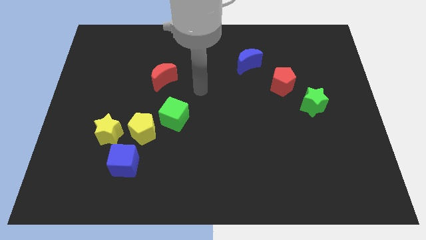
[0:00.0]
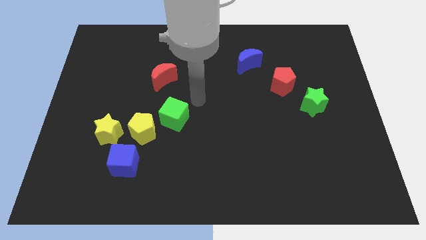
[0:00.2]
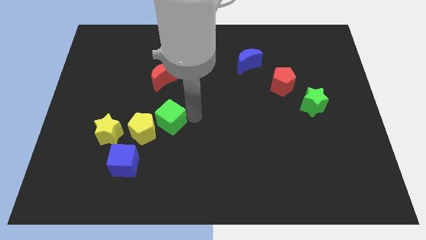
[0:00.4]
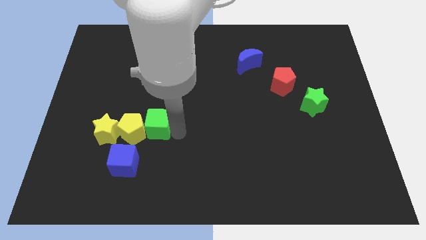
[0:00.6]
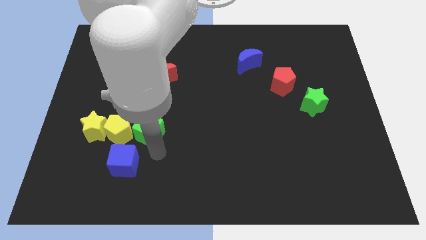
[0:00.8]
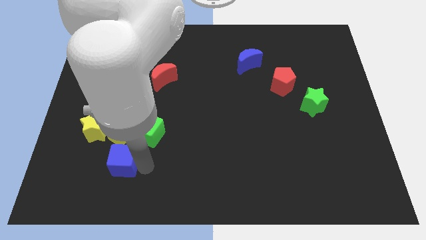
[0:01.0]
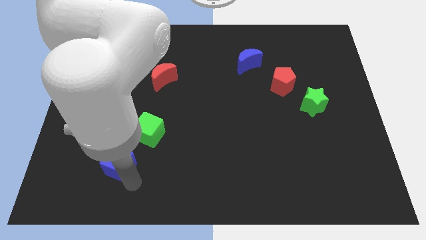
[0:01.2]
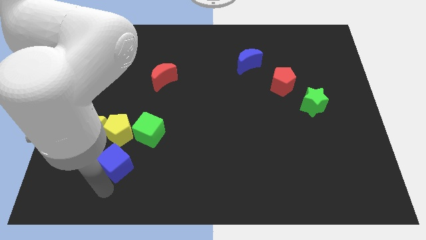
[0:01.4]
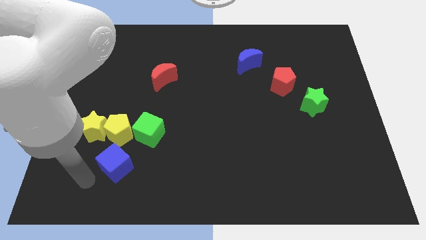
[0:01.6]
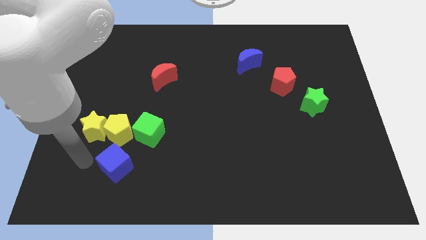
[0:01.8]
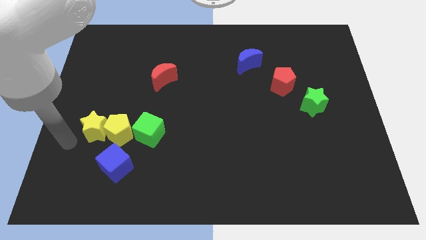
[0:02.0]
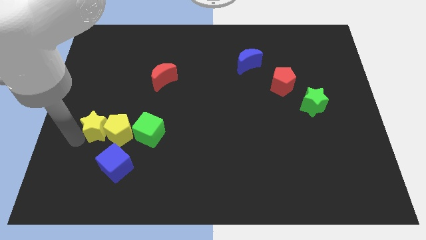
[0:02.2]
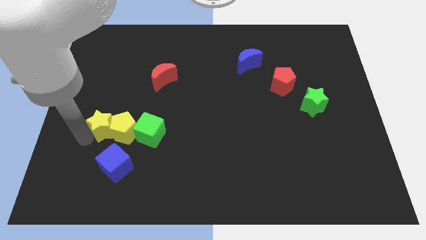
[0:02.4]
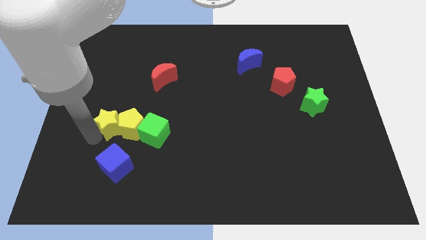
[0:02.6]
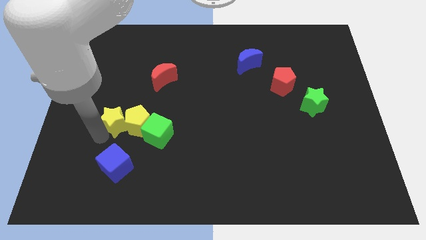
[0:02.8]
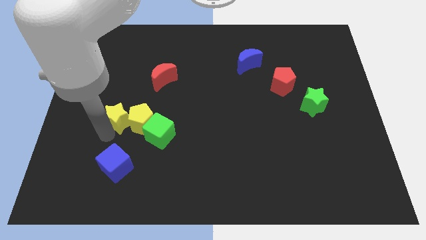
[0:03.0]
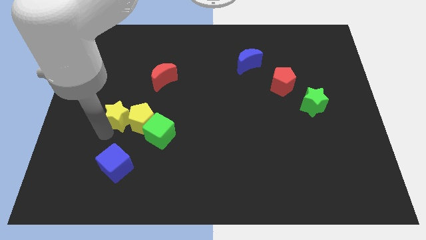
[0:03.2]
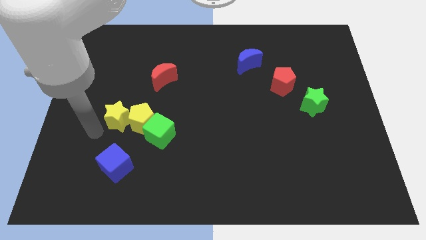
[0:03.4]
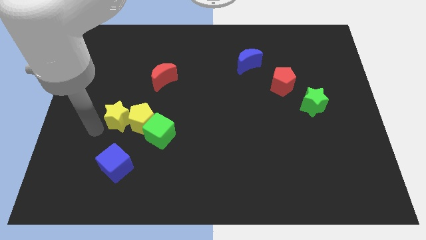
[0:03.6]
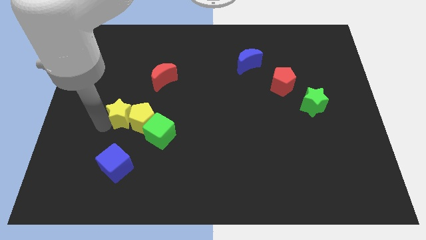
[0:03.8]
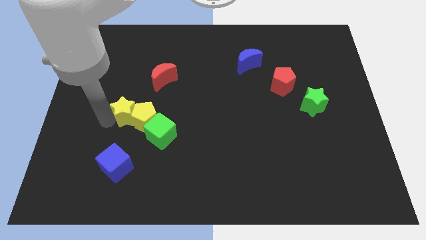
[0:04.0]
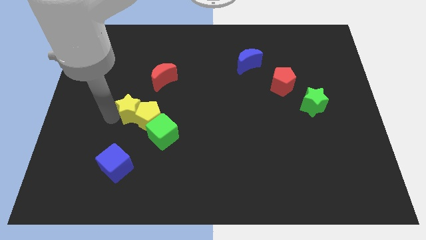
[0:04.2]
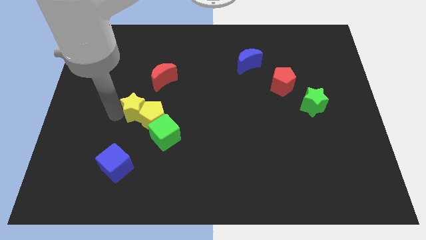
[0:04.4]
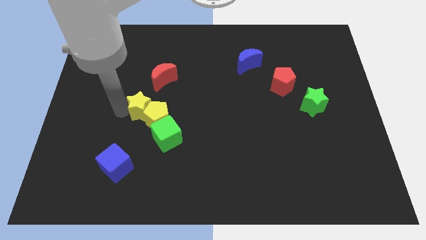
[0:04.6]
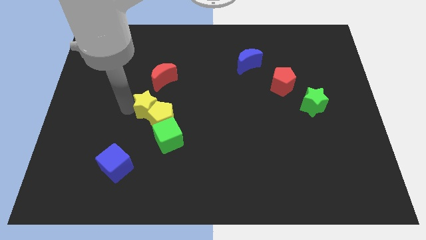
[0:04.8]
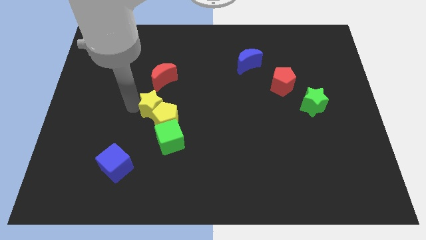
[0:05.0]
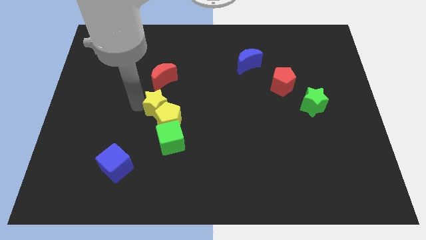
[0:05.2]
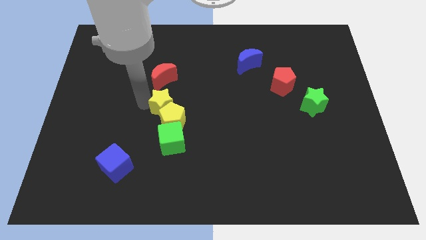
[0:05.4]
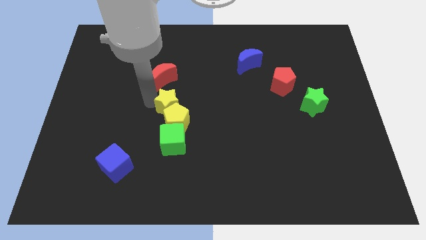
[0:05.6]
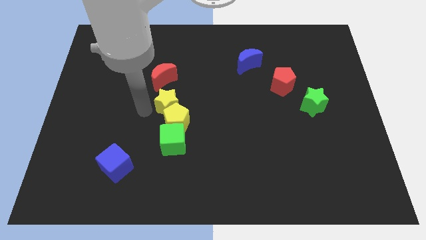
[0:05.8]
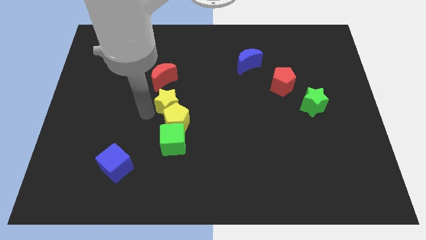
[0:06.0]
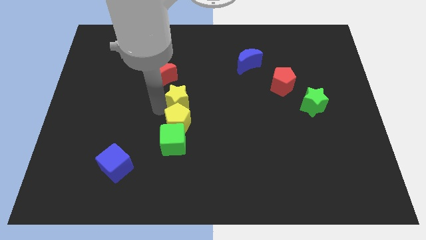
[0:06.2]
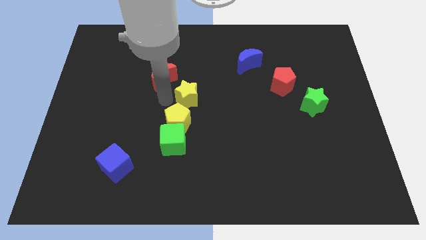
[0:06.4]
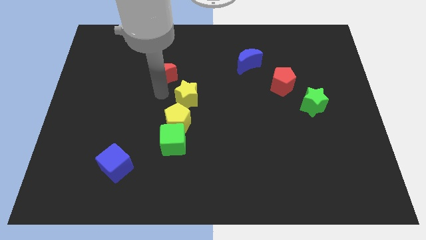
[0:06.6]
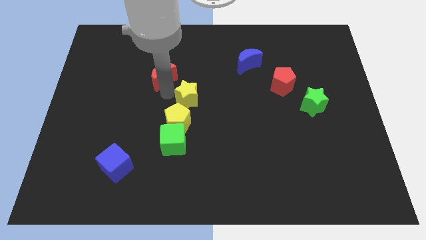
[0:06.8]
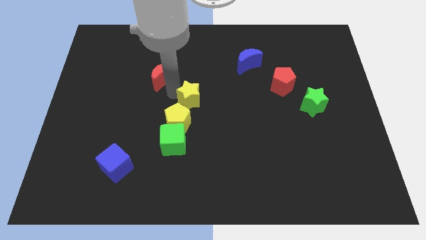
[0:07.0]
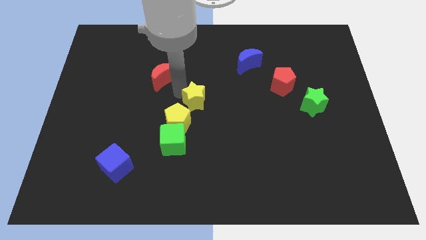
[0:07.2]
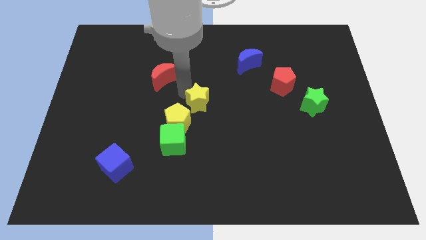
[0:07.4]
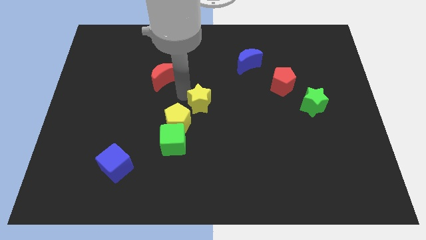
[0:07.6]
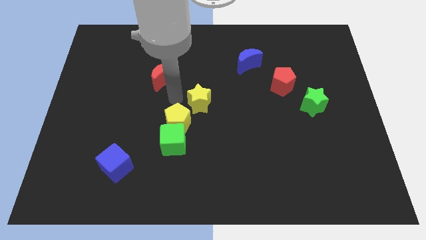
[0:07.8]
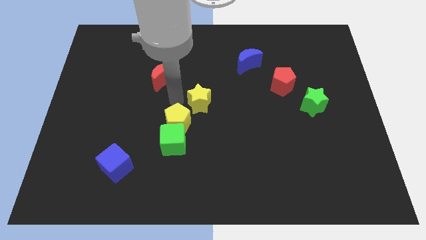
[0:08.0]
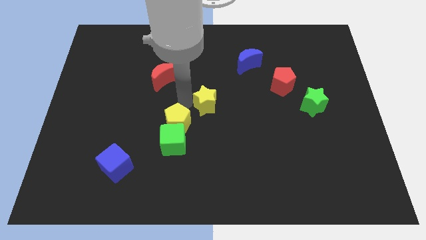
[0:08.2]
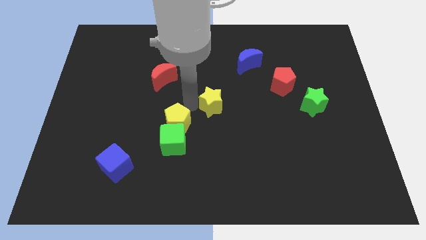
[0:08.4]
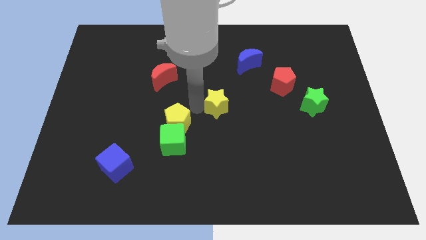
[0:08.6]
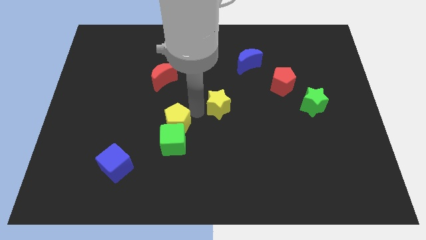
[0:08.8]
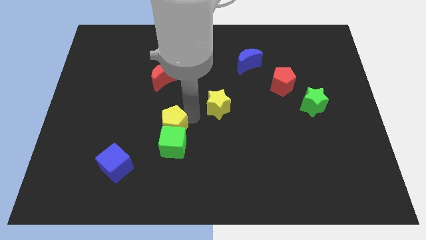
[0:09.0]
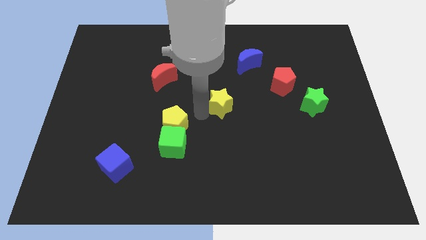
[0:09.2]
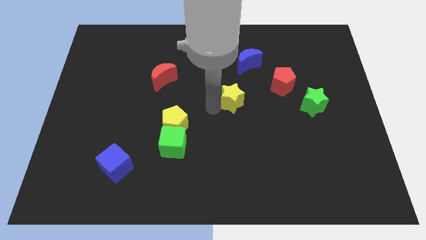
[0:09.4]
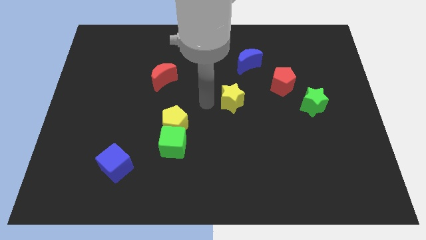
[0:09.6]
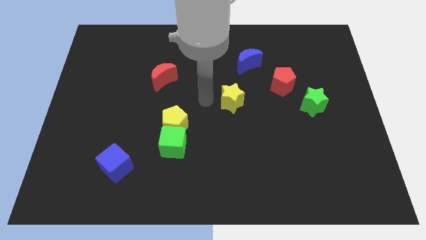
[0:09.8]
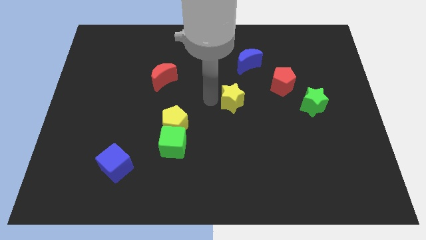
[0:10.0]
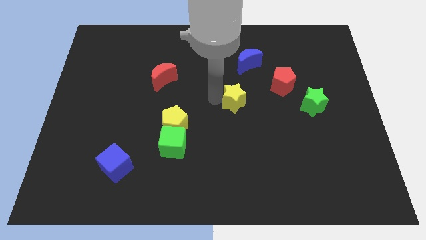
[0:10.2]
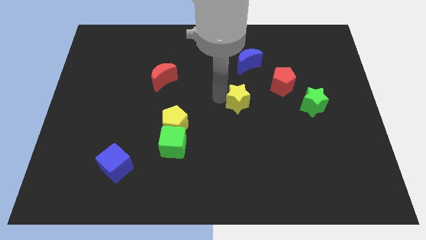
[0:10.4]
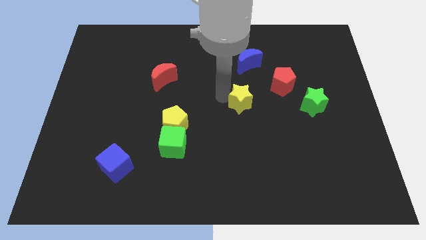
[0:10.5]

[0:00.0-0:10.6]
move the yellow star to the bottom left of the red pentagon

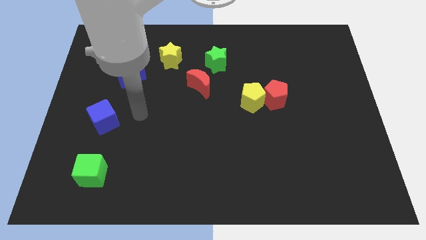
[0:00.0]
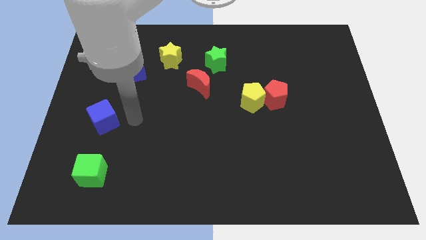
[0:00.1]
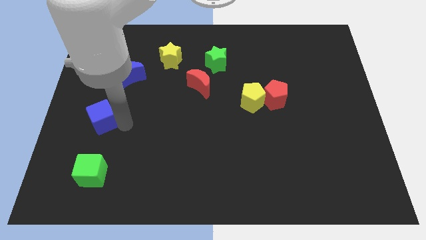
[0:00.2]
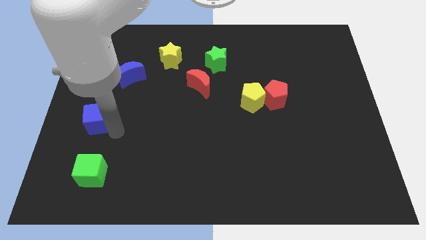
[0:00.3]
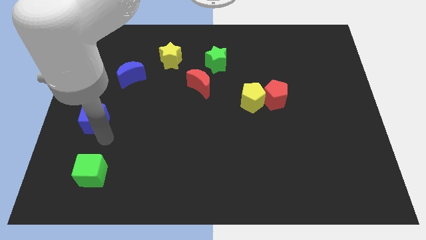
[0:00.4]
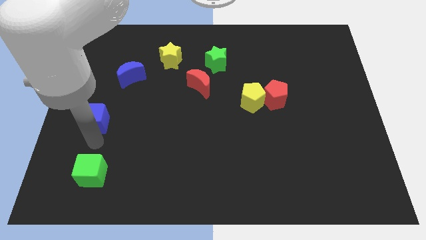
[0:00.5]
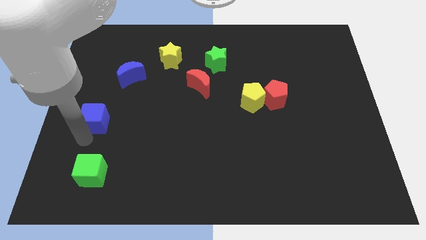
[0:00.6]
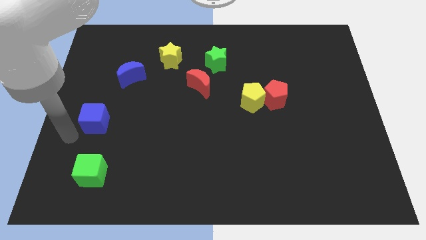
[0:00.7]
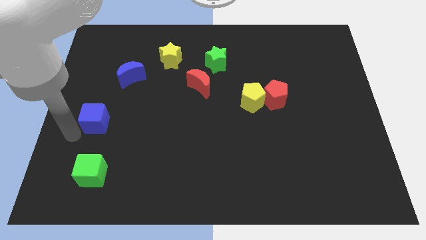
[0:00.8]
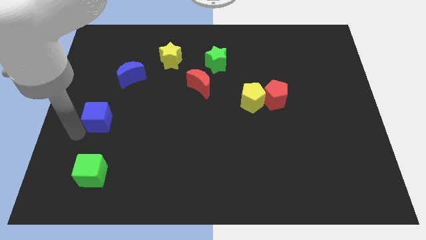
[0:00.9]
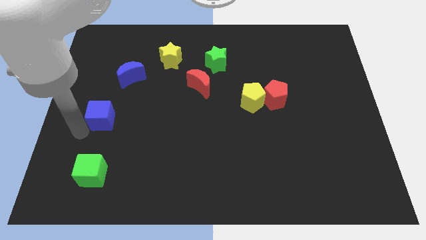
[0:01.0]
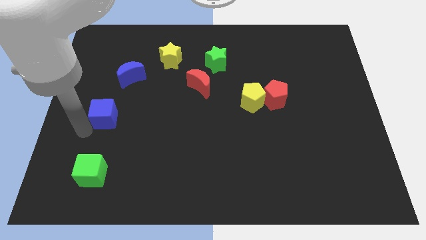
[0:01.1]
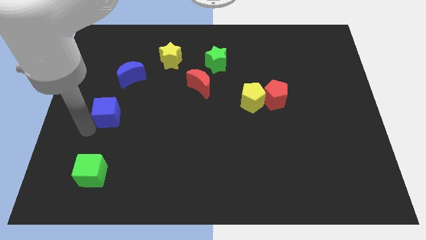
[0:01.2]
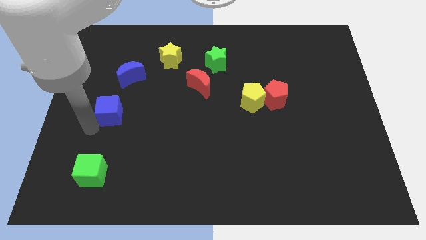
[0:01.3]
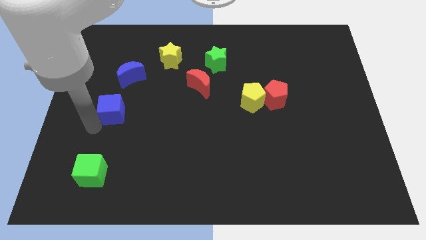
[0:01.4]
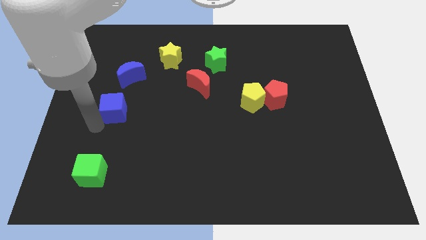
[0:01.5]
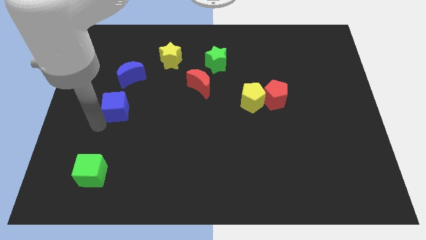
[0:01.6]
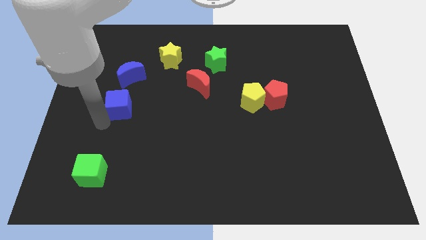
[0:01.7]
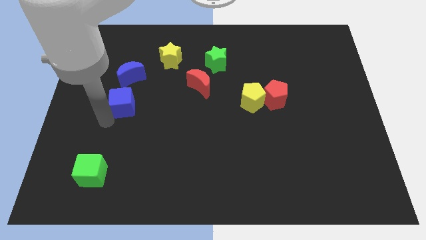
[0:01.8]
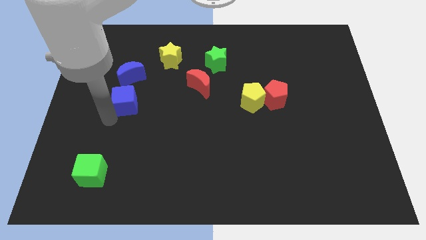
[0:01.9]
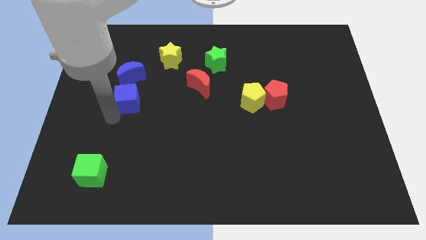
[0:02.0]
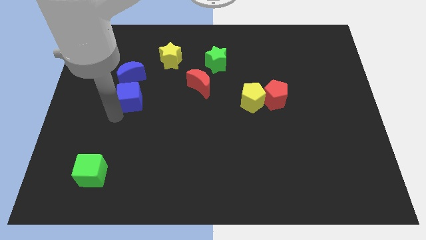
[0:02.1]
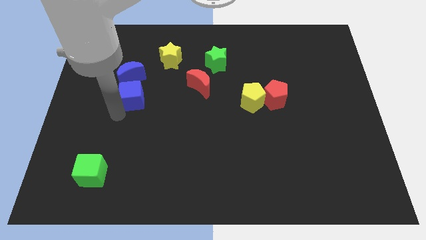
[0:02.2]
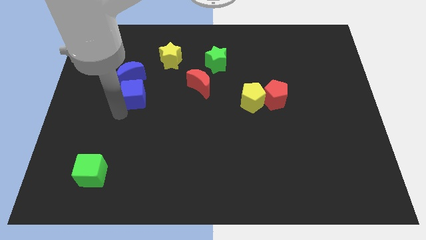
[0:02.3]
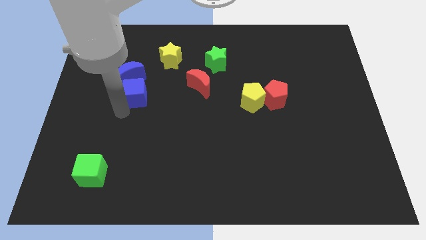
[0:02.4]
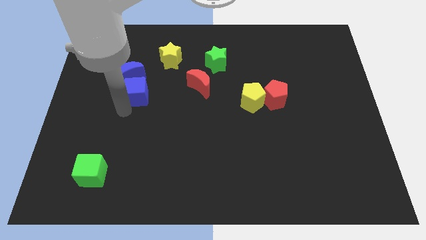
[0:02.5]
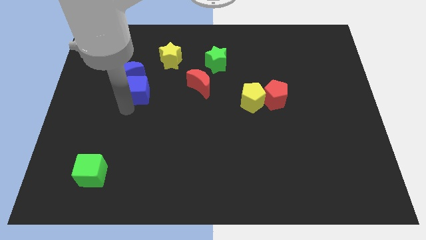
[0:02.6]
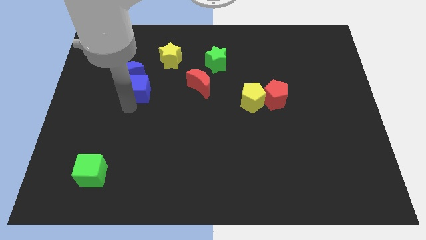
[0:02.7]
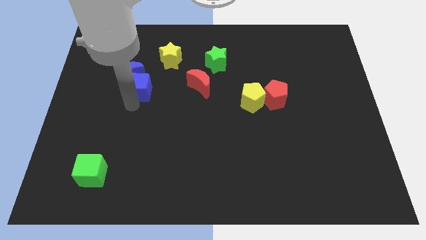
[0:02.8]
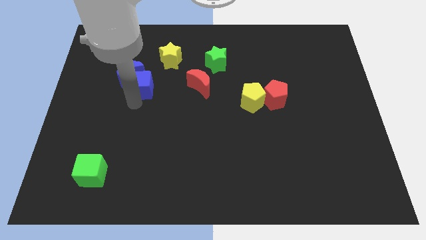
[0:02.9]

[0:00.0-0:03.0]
move the blue cube to the right side of the blue moon
